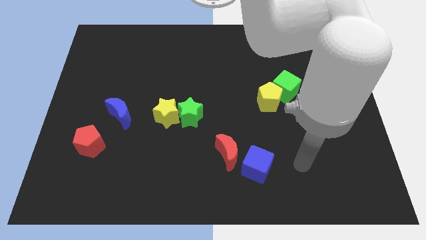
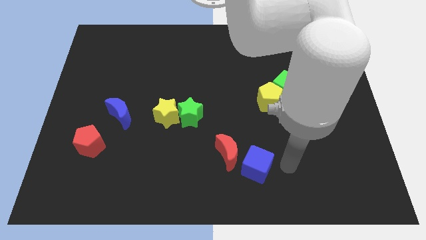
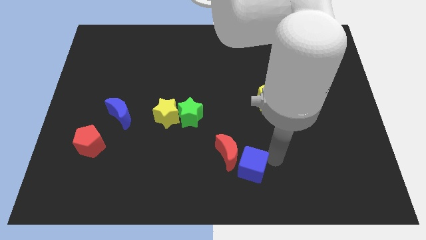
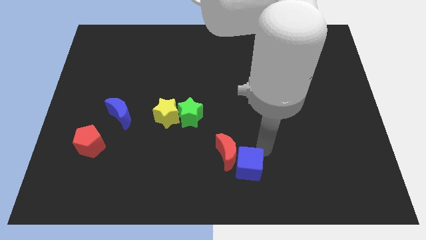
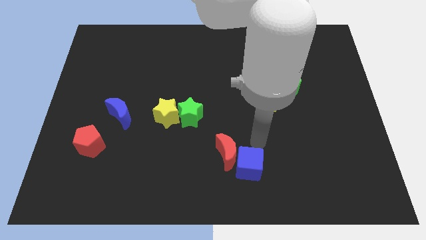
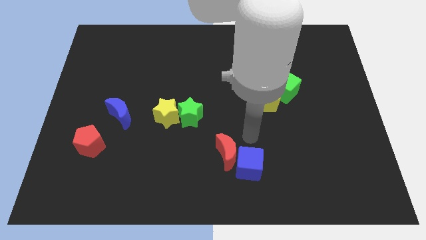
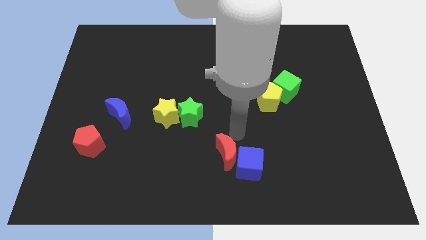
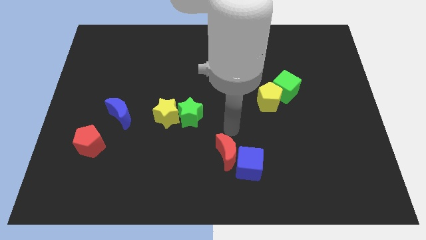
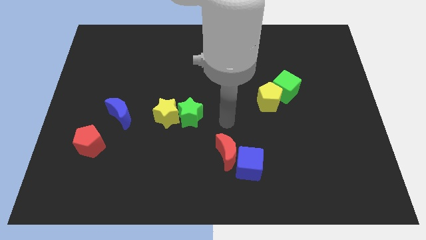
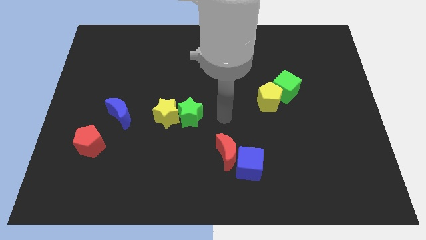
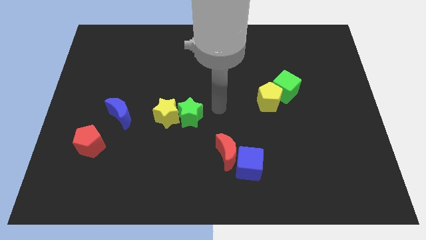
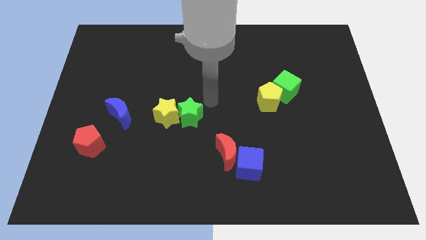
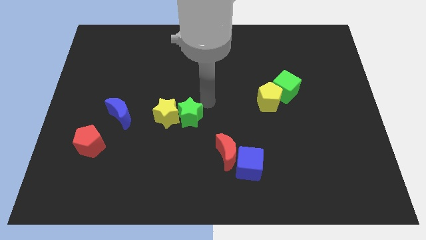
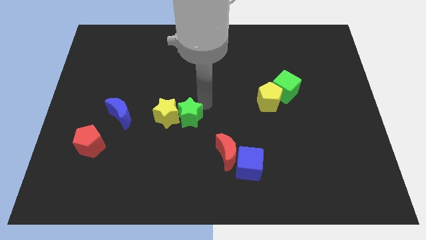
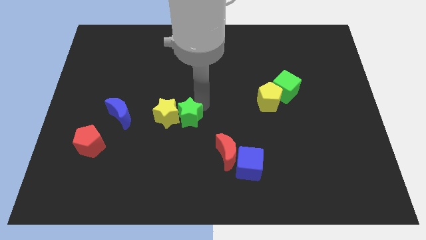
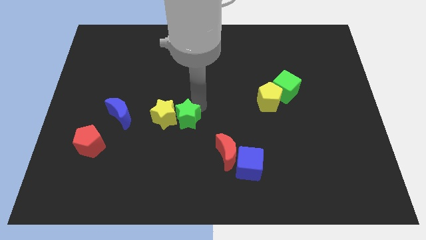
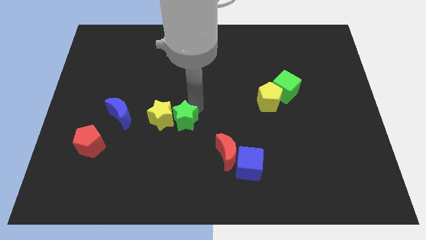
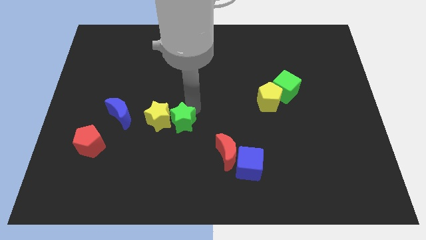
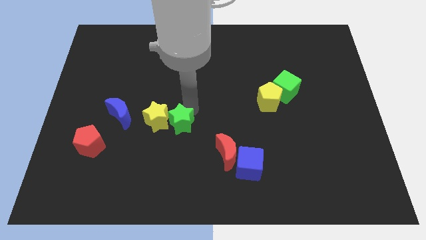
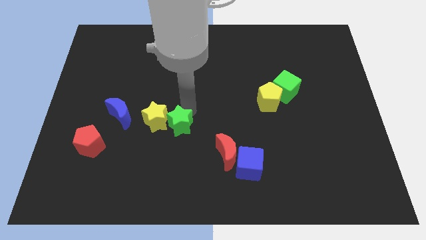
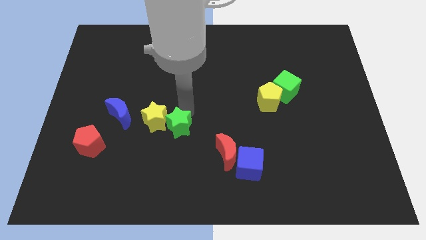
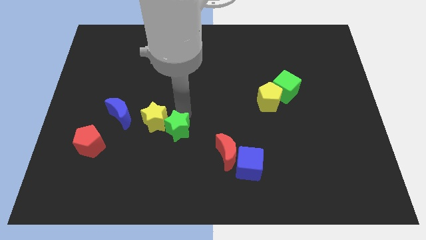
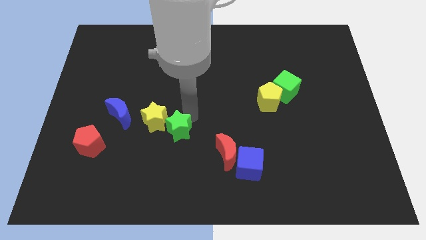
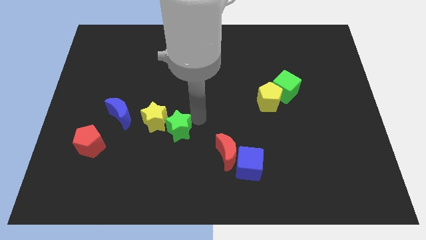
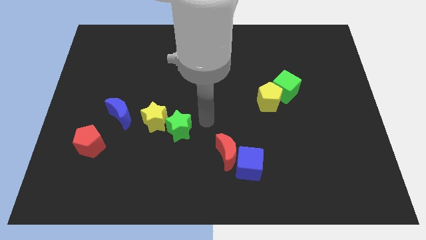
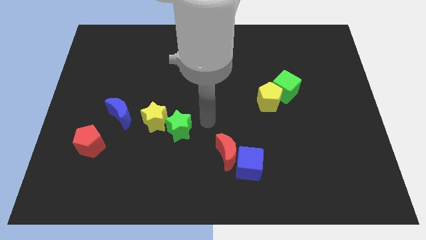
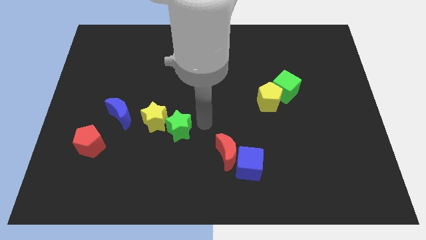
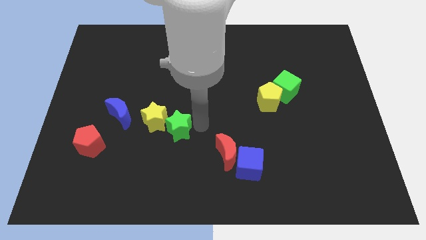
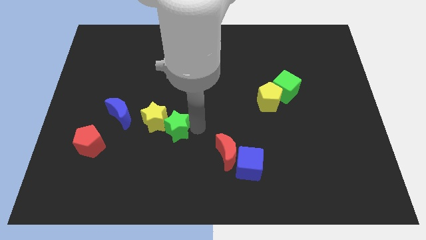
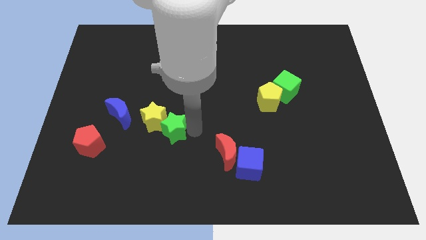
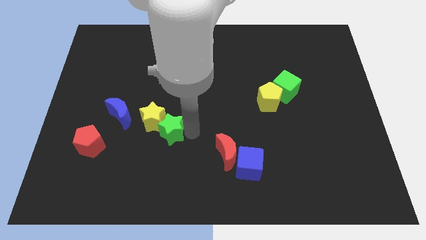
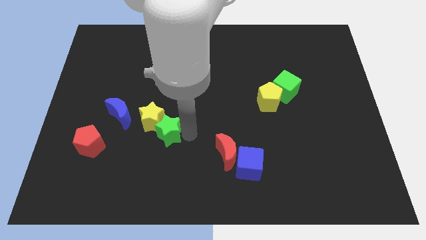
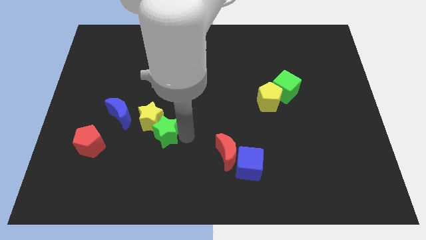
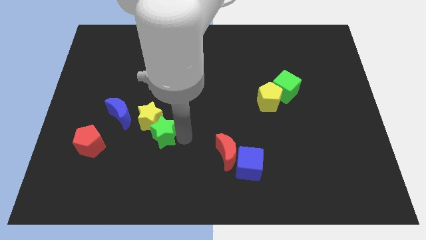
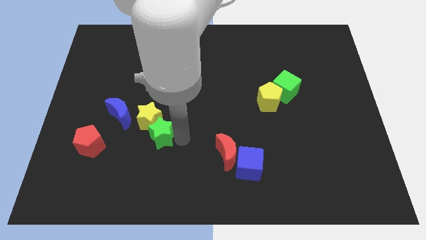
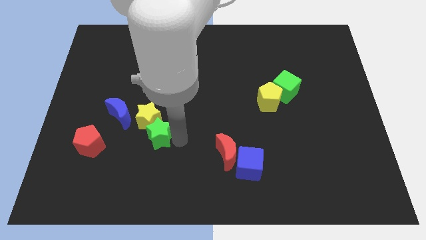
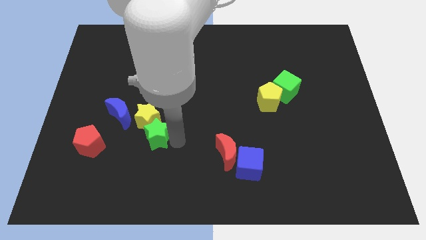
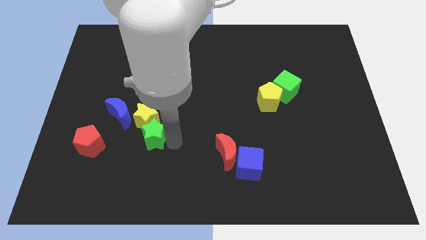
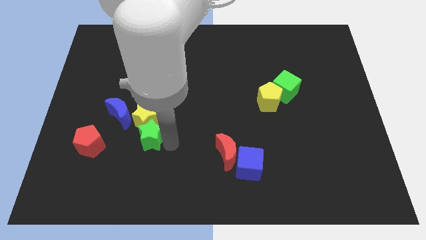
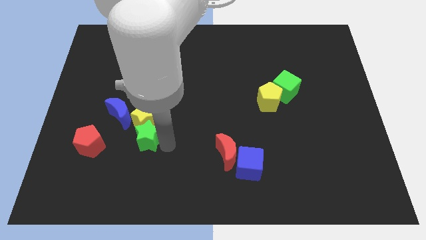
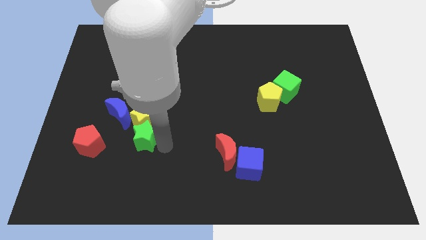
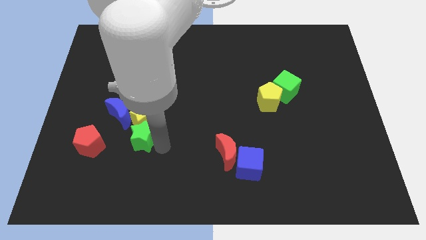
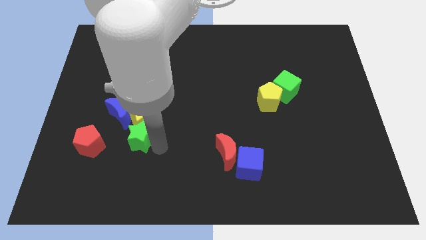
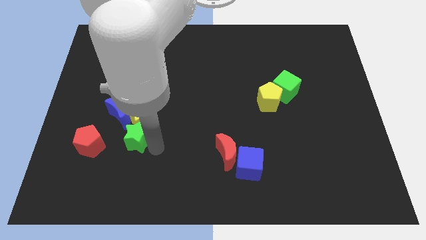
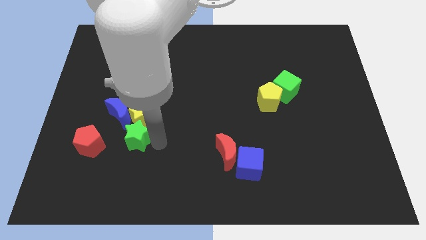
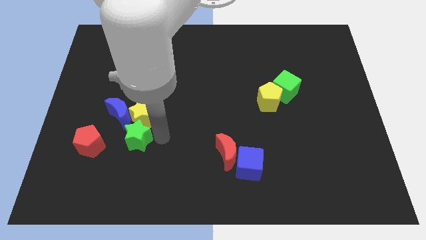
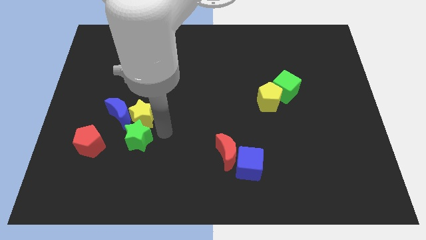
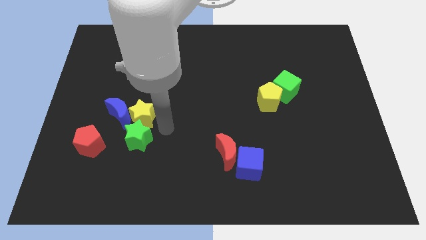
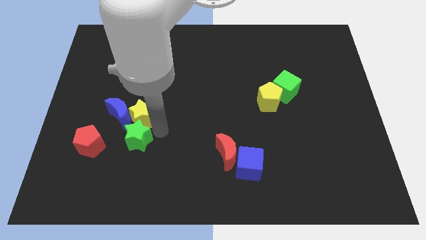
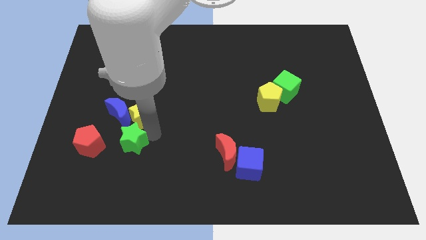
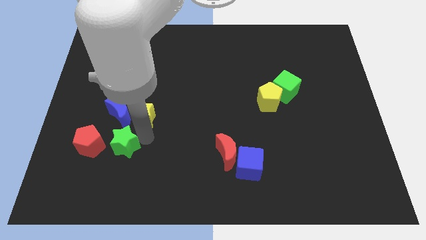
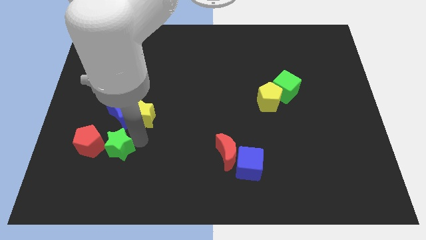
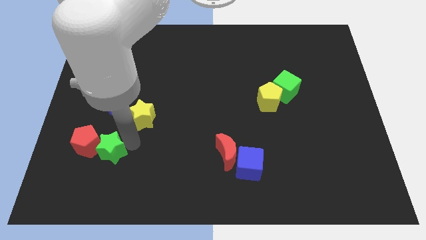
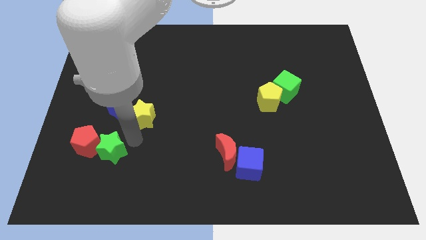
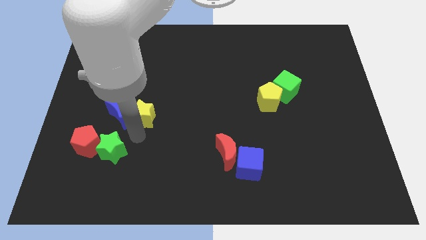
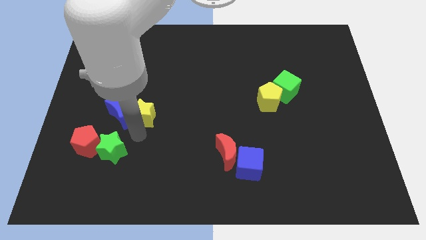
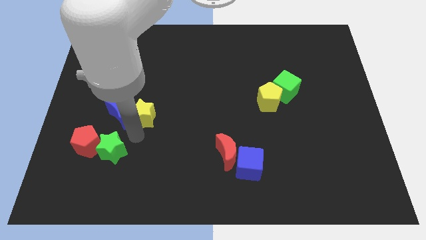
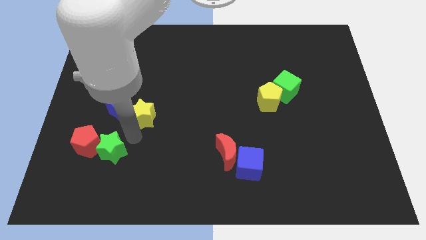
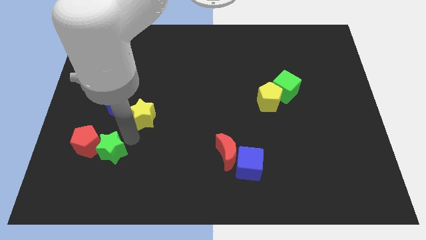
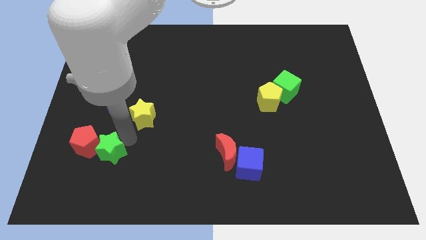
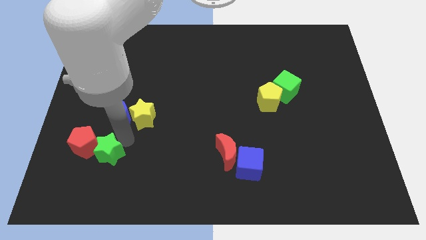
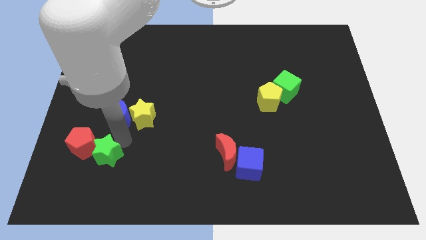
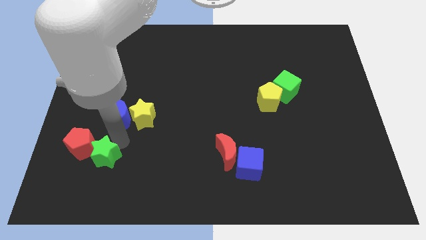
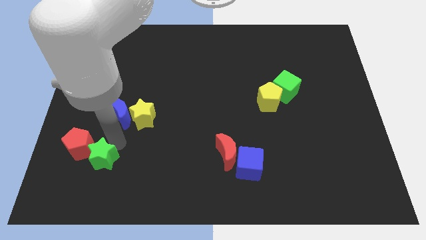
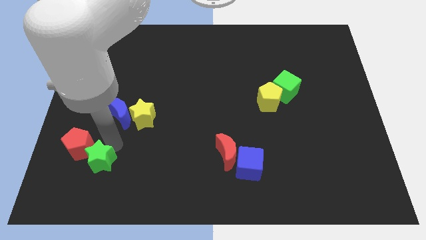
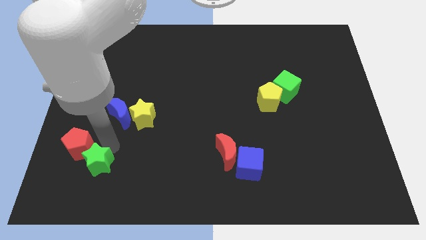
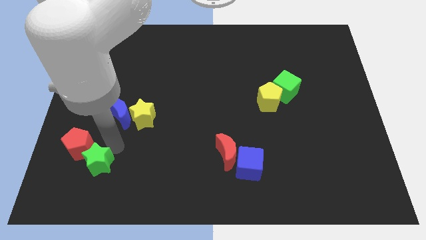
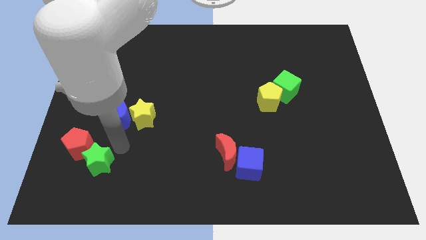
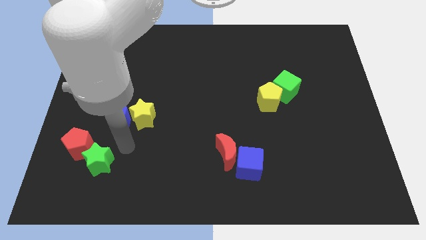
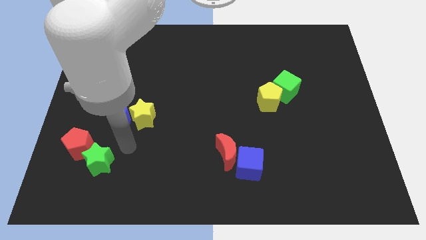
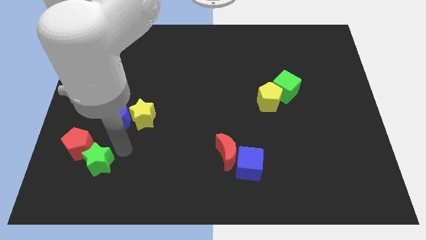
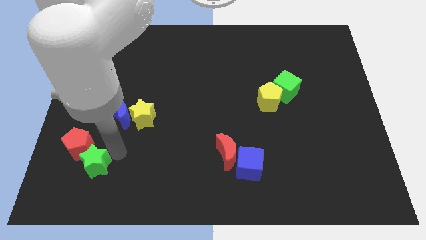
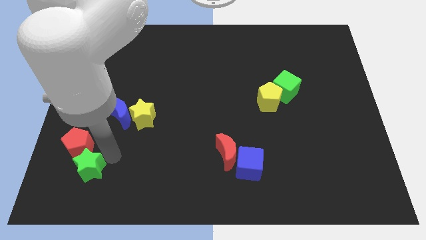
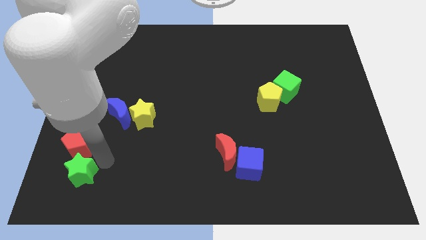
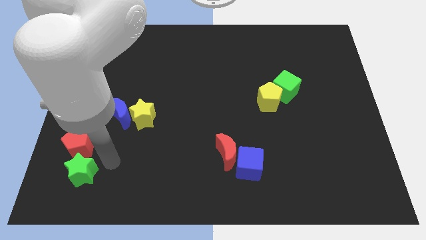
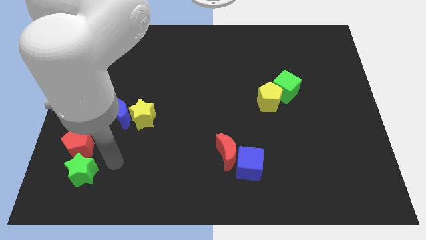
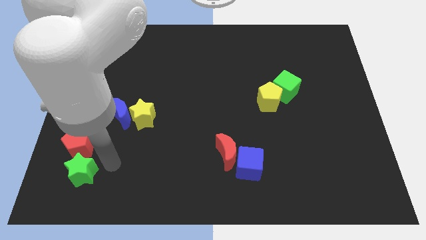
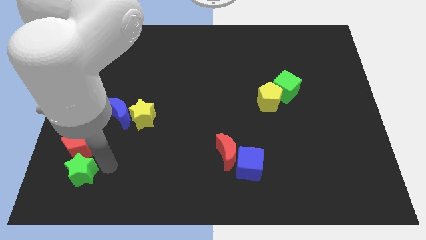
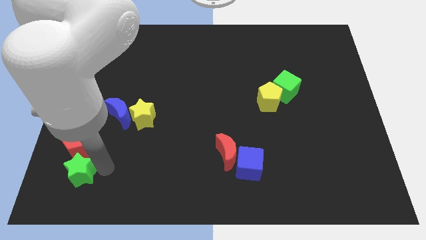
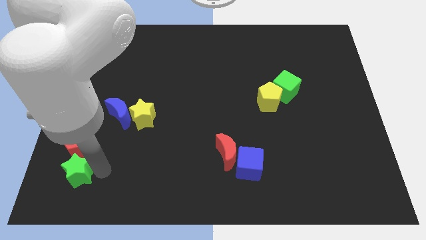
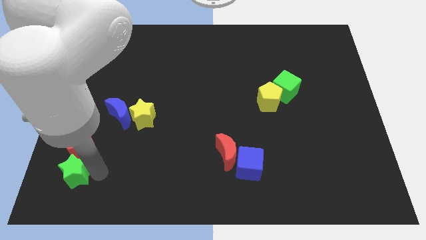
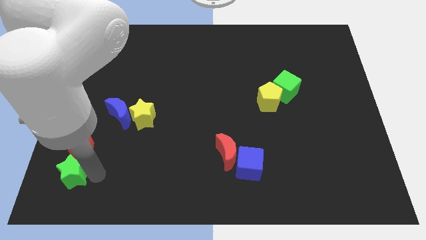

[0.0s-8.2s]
put the green star to the lower left corner
